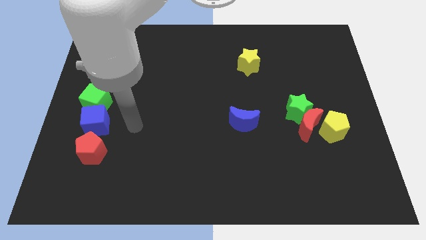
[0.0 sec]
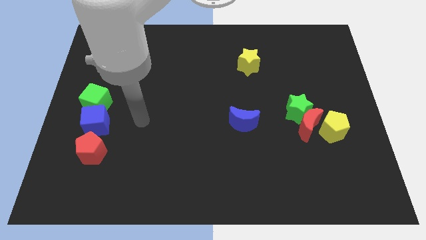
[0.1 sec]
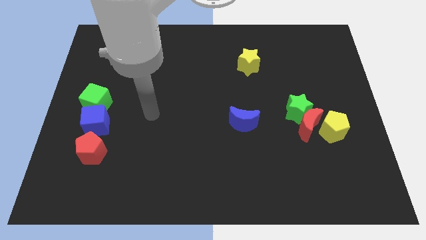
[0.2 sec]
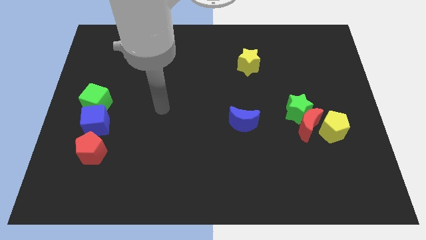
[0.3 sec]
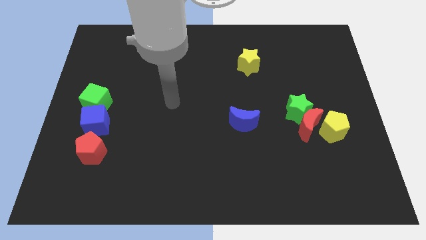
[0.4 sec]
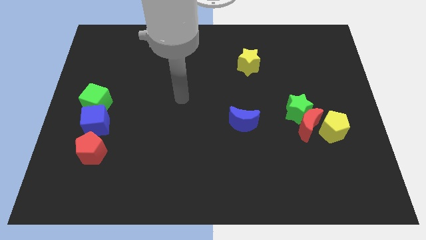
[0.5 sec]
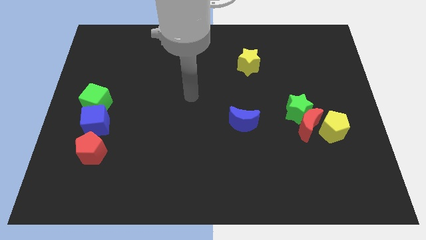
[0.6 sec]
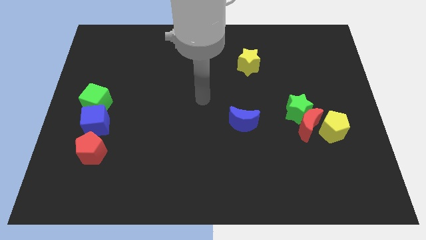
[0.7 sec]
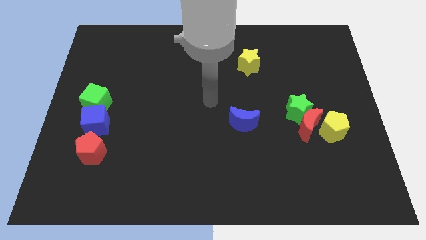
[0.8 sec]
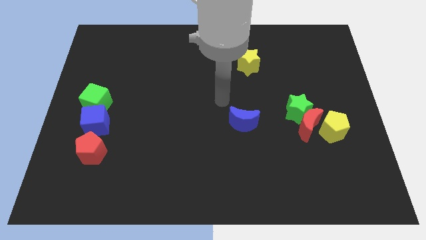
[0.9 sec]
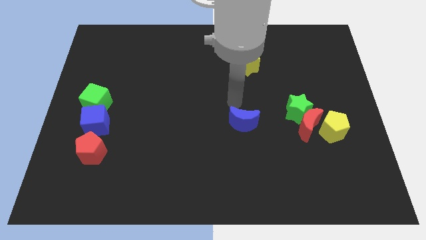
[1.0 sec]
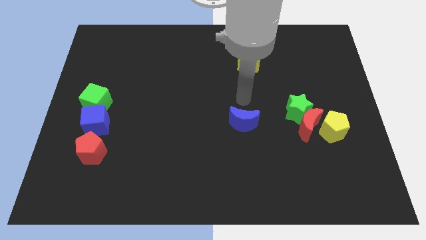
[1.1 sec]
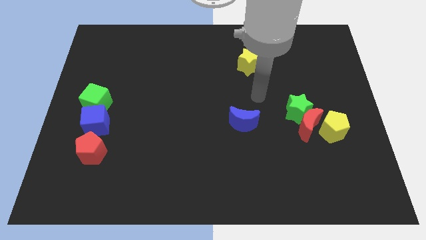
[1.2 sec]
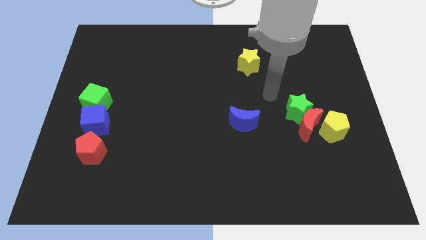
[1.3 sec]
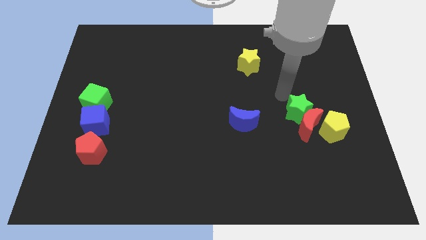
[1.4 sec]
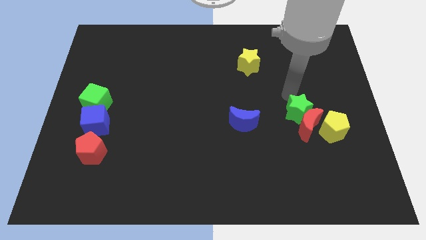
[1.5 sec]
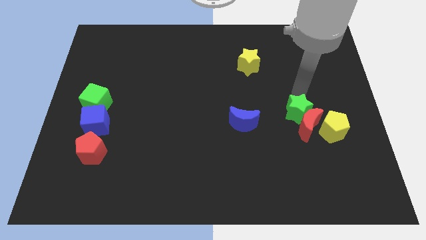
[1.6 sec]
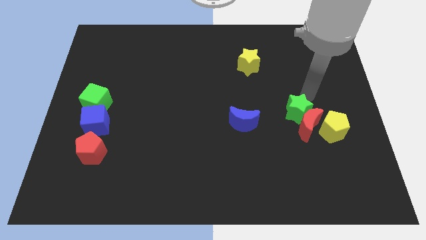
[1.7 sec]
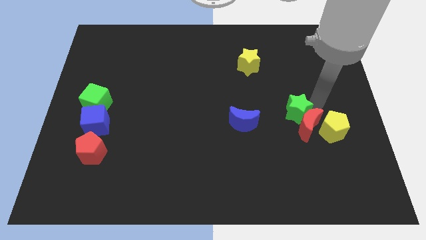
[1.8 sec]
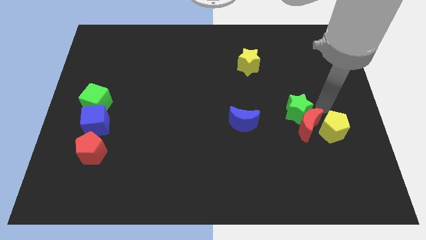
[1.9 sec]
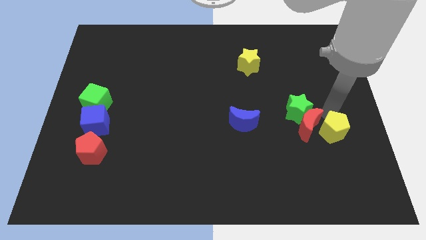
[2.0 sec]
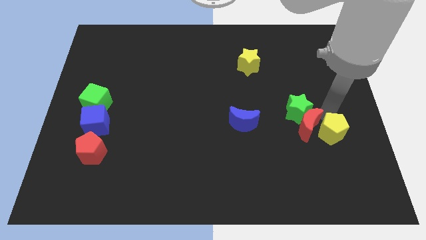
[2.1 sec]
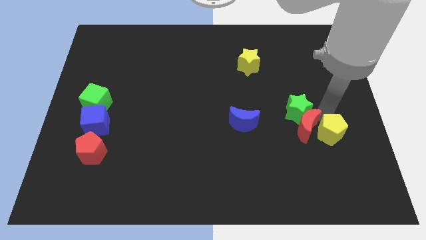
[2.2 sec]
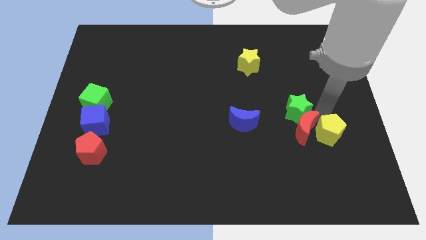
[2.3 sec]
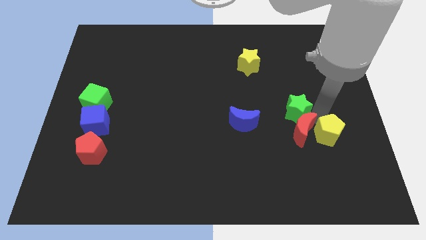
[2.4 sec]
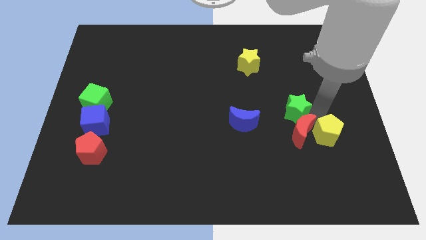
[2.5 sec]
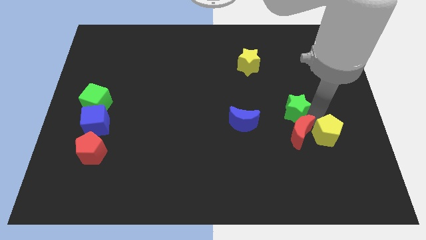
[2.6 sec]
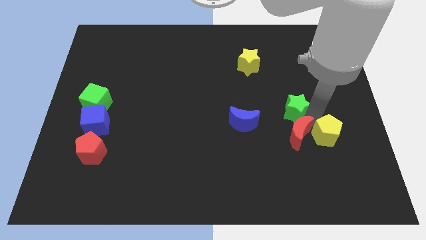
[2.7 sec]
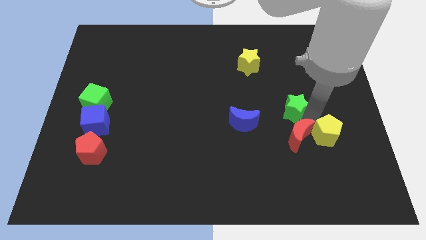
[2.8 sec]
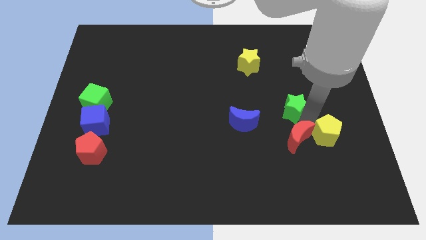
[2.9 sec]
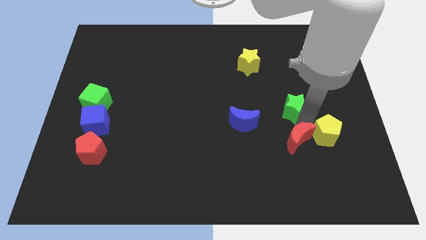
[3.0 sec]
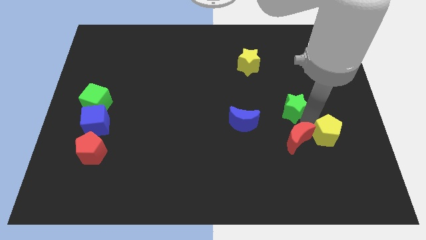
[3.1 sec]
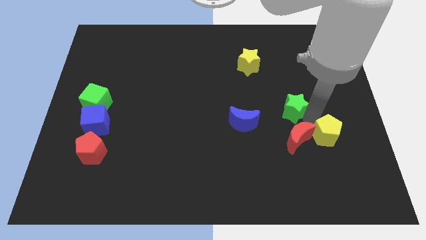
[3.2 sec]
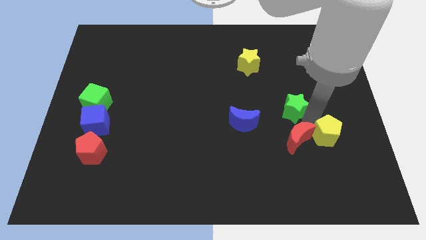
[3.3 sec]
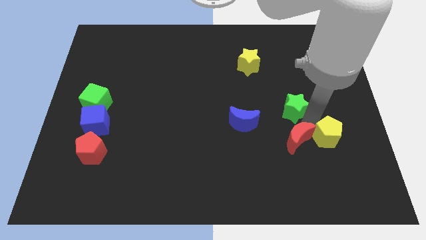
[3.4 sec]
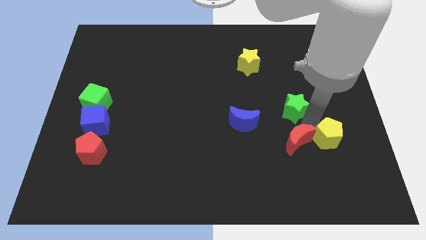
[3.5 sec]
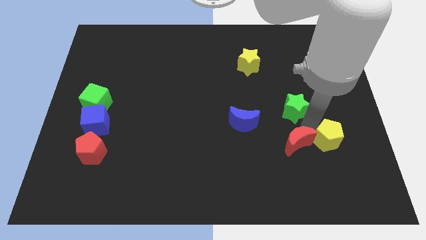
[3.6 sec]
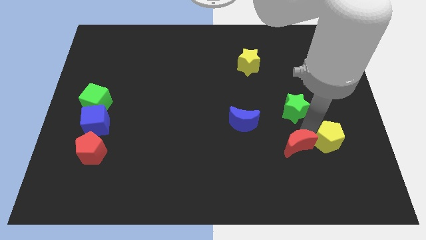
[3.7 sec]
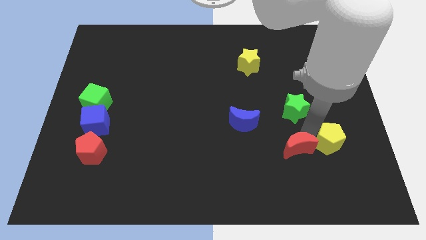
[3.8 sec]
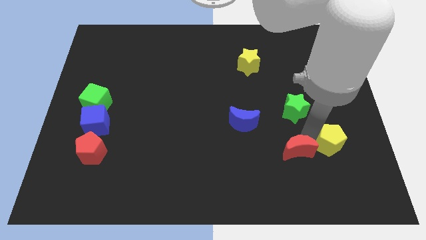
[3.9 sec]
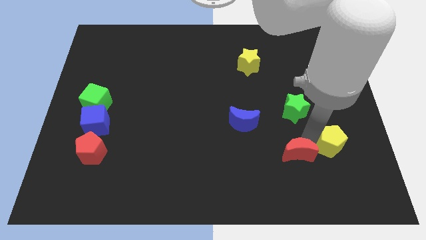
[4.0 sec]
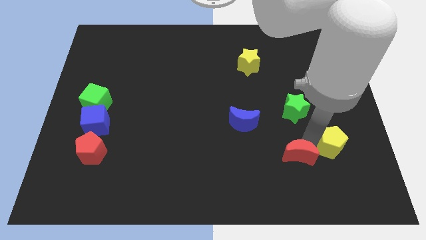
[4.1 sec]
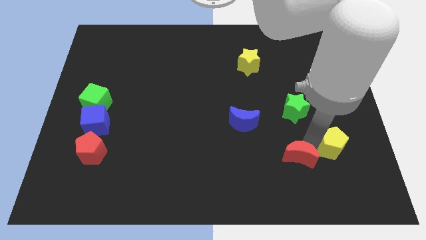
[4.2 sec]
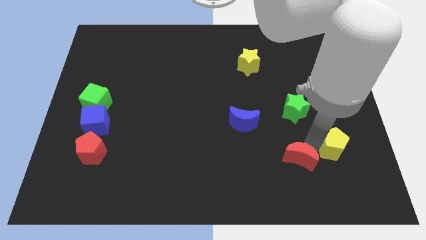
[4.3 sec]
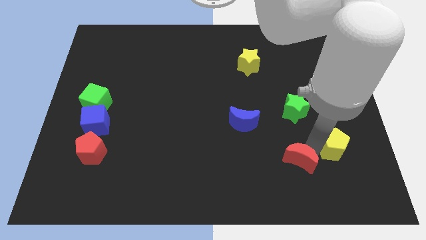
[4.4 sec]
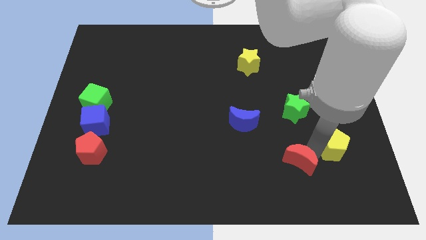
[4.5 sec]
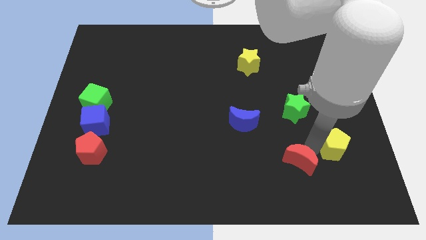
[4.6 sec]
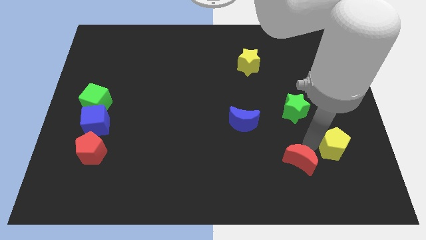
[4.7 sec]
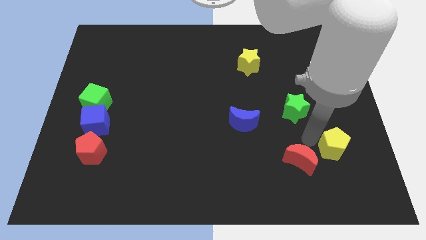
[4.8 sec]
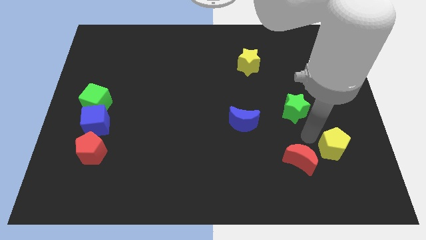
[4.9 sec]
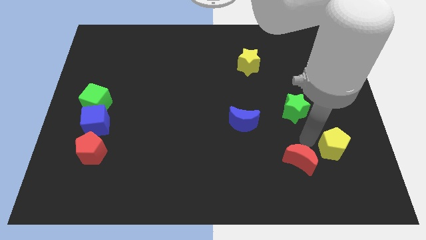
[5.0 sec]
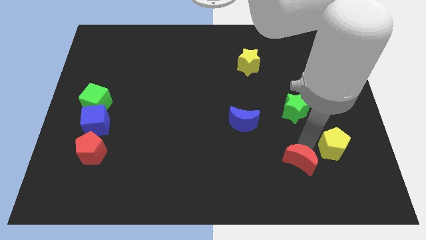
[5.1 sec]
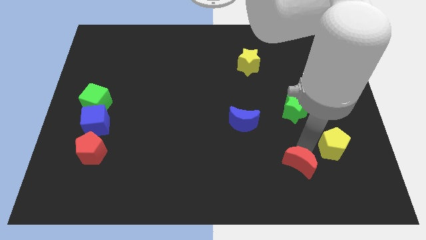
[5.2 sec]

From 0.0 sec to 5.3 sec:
pull the red moon apart from the green star and yellow pentagon

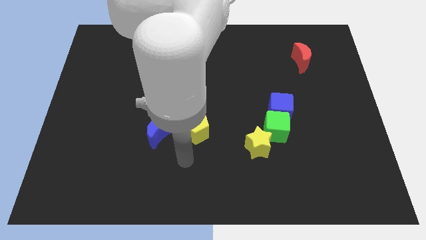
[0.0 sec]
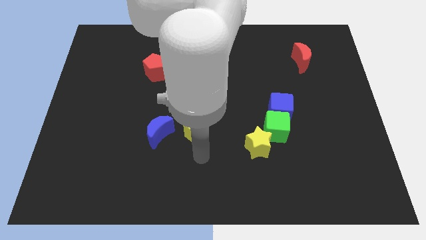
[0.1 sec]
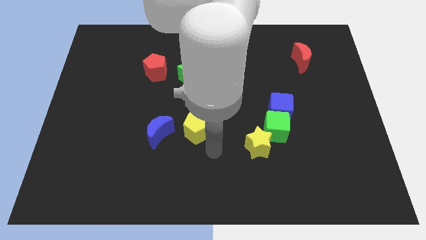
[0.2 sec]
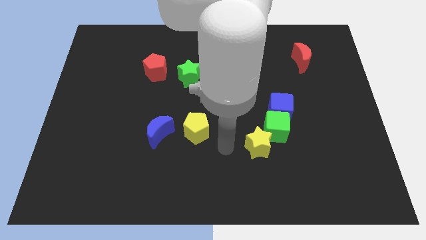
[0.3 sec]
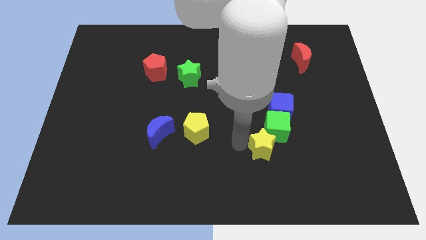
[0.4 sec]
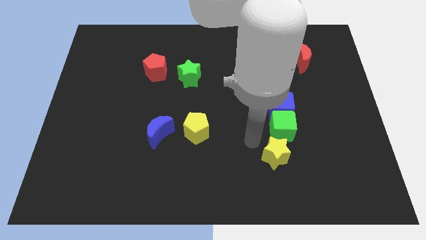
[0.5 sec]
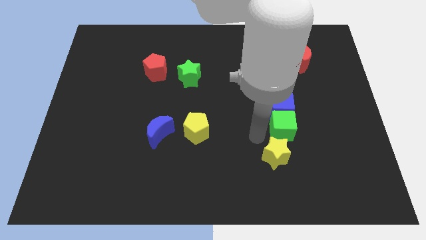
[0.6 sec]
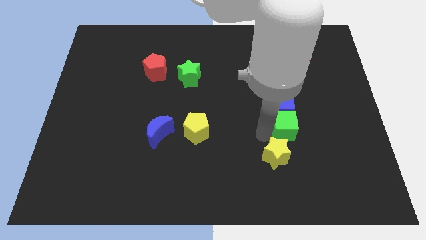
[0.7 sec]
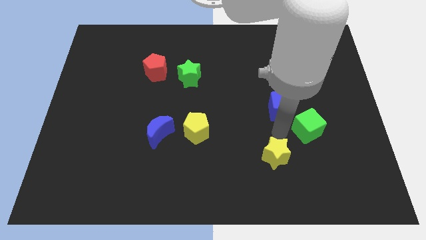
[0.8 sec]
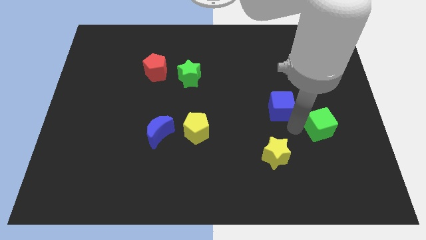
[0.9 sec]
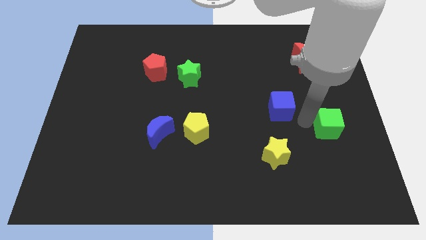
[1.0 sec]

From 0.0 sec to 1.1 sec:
separate the blue cube from the green cube

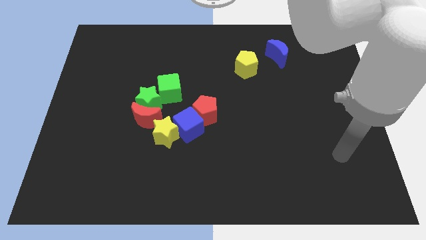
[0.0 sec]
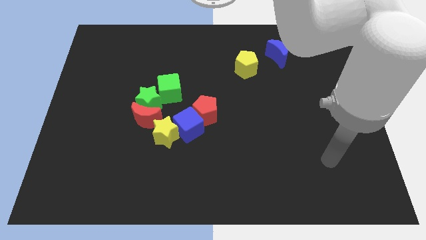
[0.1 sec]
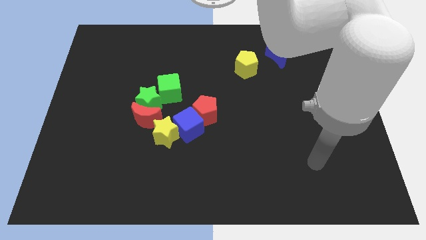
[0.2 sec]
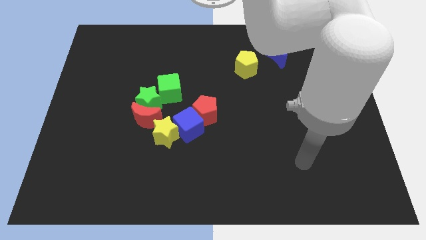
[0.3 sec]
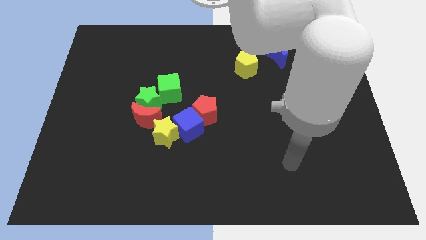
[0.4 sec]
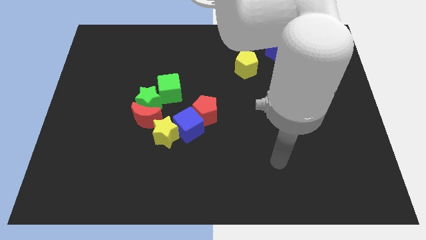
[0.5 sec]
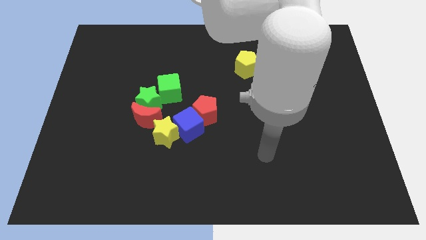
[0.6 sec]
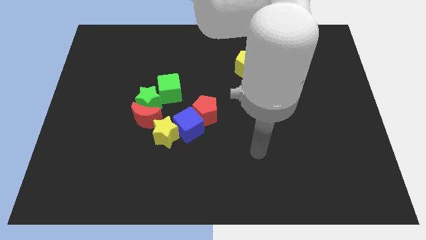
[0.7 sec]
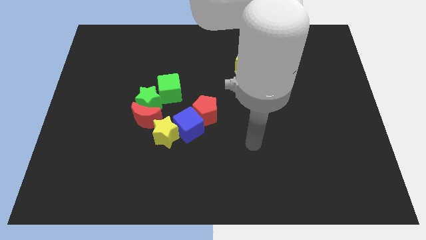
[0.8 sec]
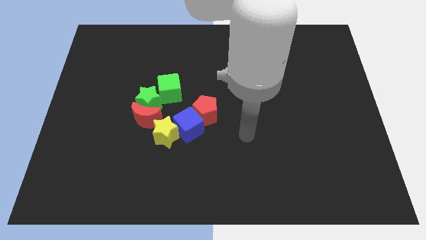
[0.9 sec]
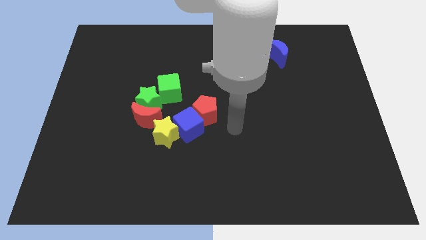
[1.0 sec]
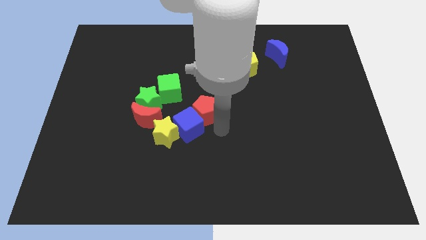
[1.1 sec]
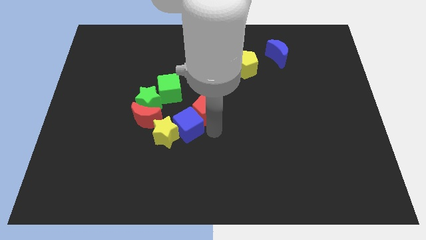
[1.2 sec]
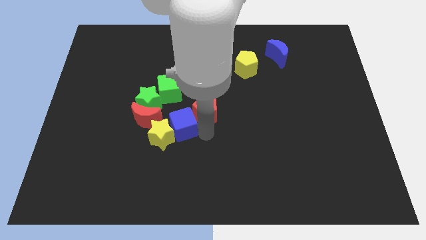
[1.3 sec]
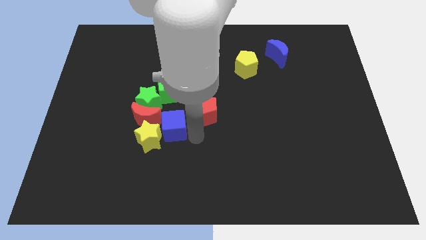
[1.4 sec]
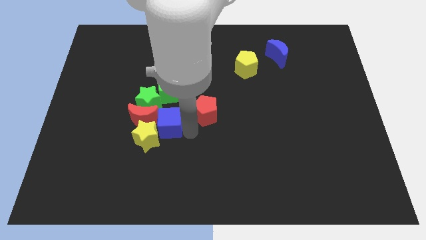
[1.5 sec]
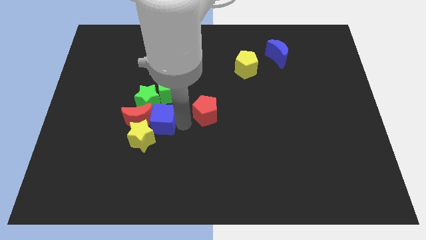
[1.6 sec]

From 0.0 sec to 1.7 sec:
pull the red pentagon apart from the blue cube

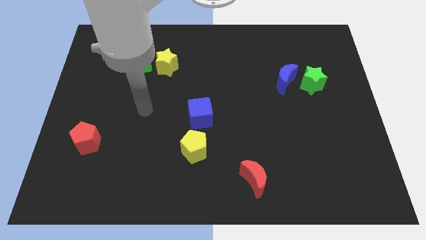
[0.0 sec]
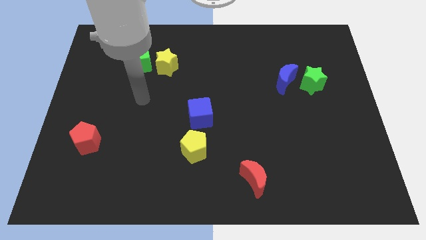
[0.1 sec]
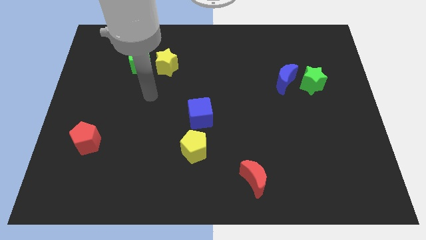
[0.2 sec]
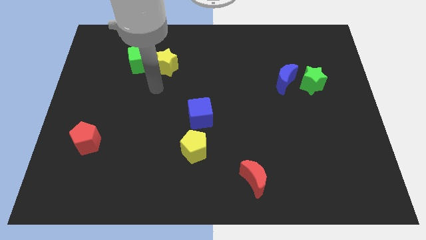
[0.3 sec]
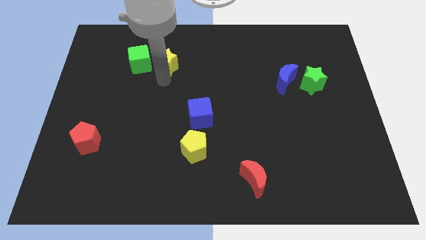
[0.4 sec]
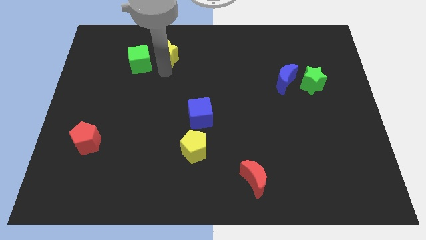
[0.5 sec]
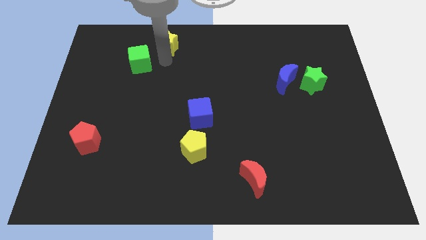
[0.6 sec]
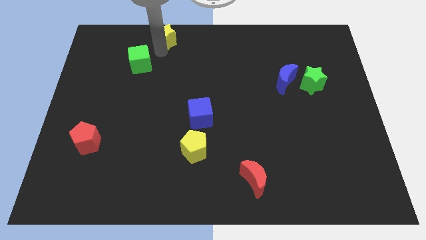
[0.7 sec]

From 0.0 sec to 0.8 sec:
move the green cube away from the yellow star

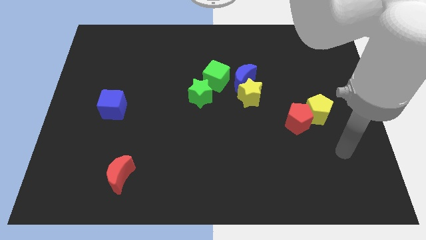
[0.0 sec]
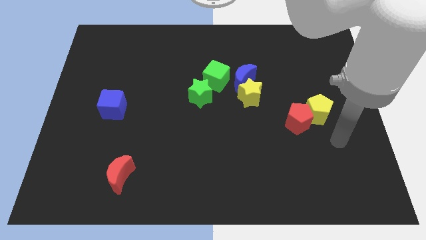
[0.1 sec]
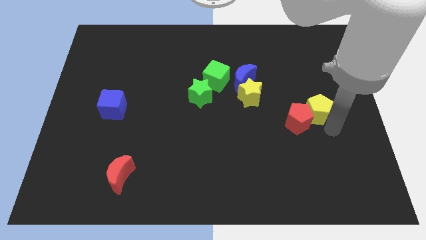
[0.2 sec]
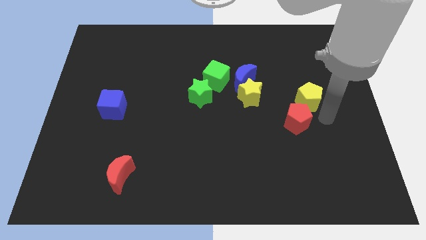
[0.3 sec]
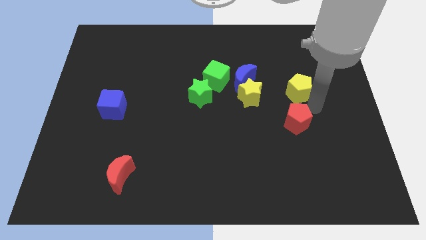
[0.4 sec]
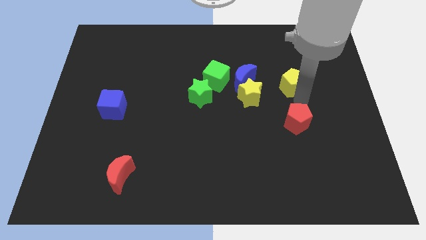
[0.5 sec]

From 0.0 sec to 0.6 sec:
separate the red pentagon from the yellow pentagon
